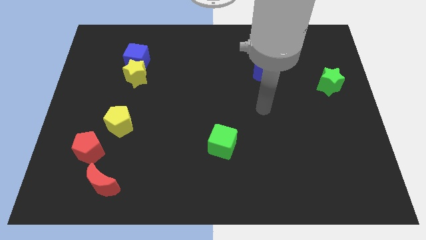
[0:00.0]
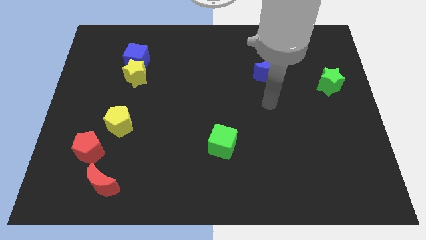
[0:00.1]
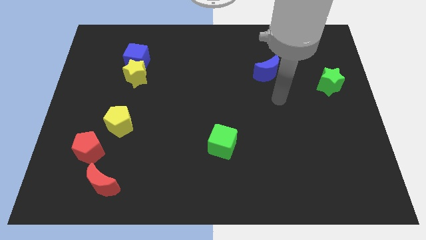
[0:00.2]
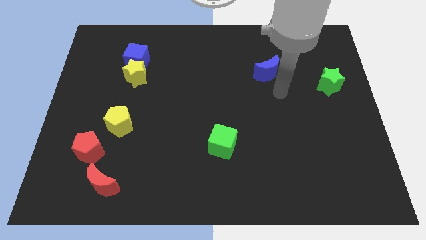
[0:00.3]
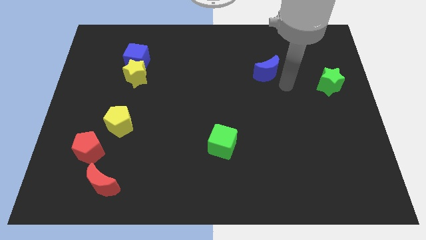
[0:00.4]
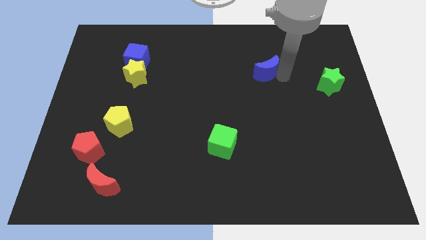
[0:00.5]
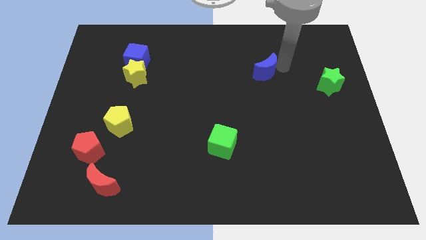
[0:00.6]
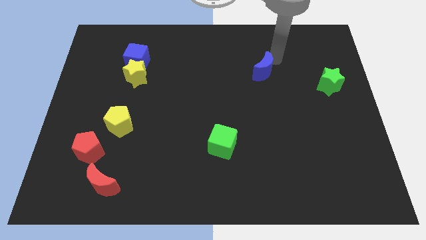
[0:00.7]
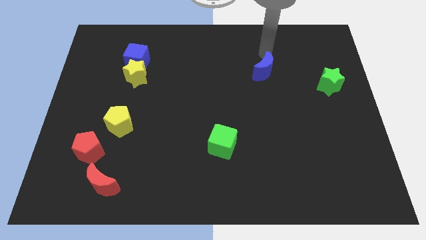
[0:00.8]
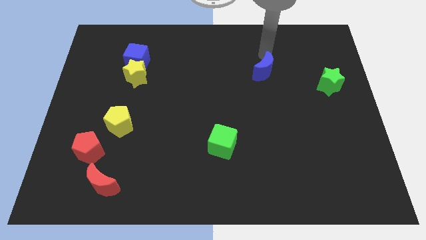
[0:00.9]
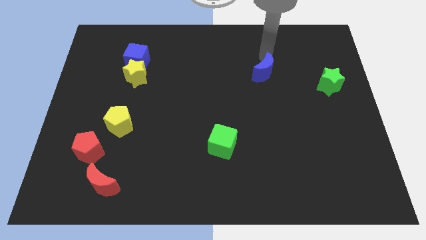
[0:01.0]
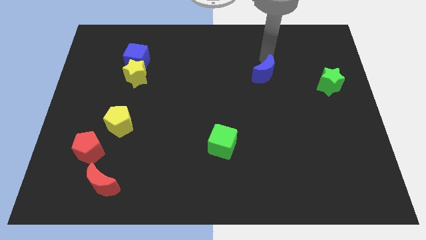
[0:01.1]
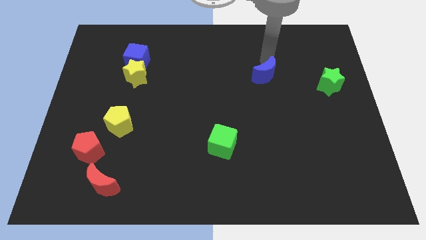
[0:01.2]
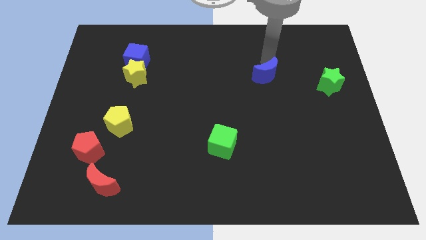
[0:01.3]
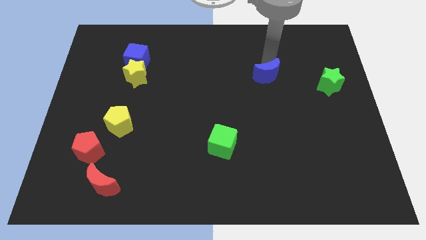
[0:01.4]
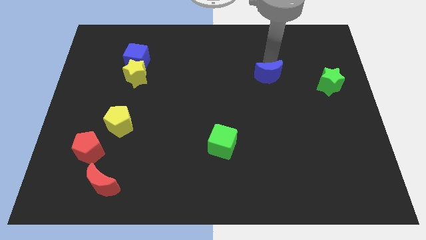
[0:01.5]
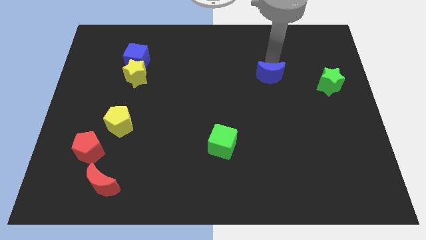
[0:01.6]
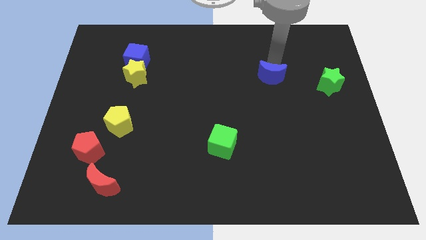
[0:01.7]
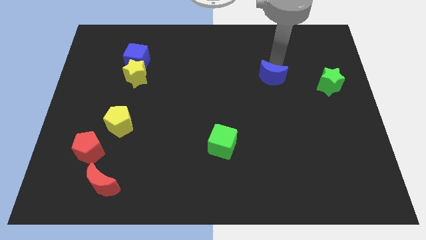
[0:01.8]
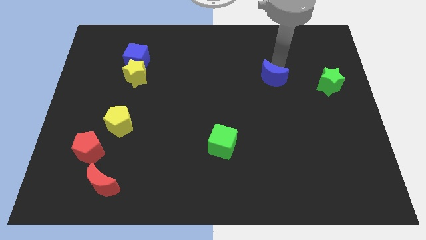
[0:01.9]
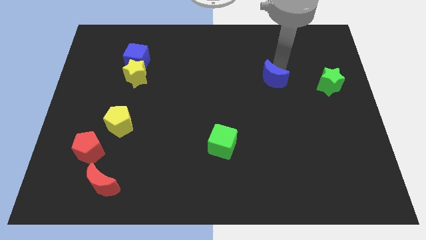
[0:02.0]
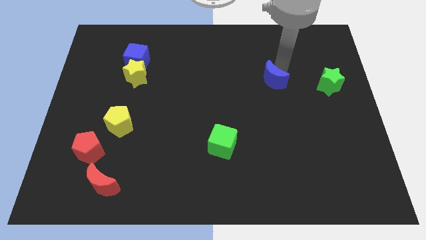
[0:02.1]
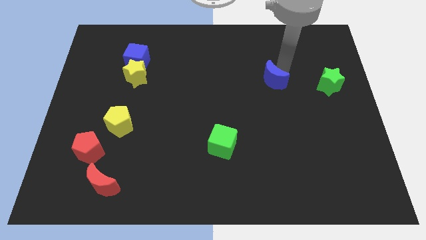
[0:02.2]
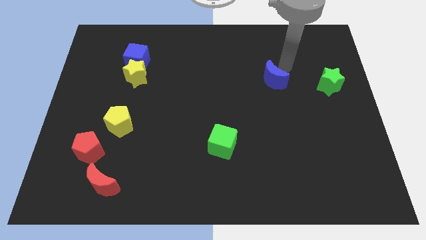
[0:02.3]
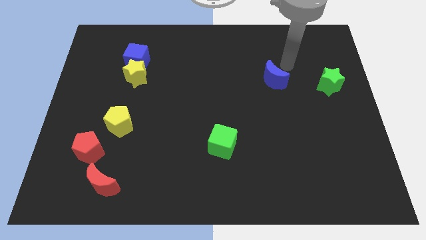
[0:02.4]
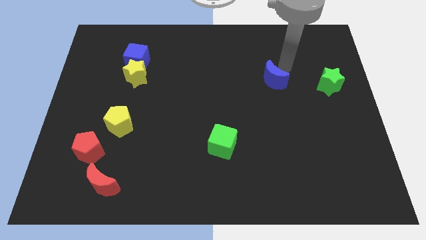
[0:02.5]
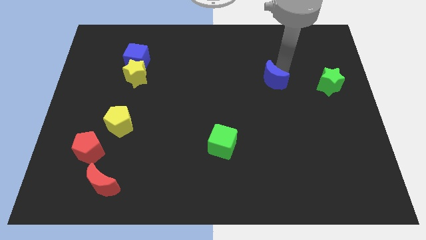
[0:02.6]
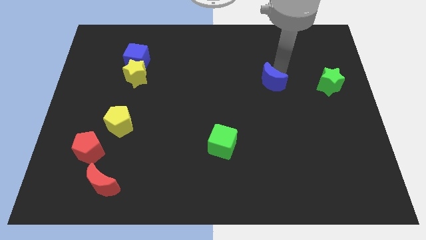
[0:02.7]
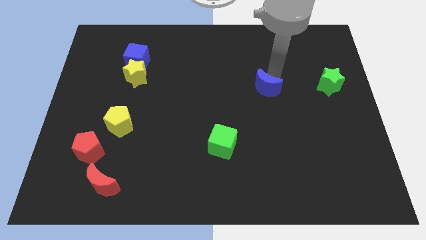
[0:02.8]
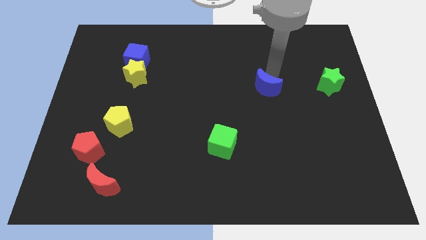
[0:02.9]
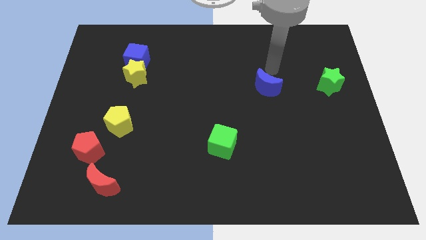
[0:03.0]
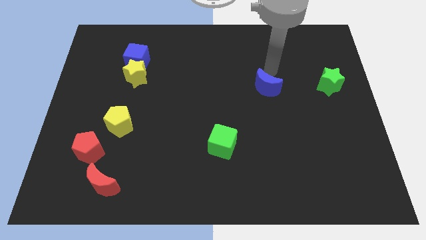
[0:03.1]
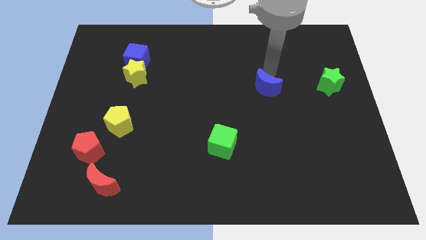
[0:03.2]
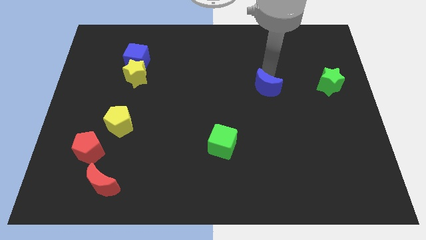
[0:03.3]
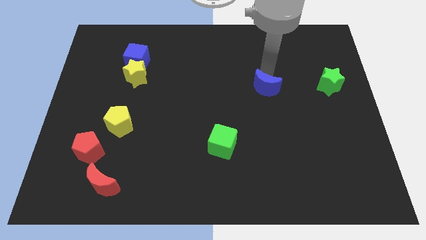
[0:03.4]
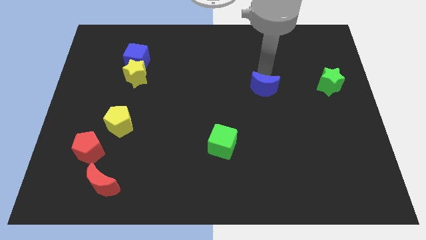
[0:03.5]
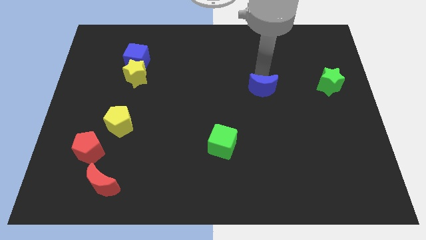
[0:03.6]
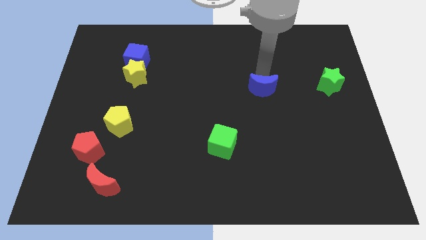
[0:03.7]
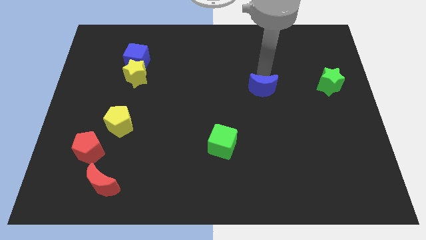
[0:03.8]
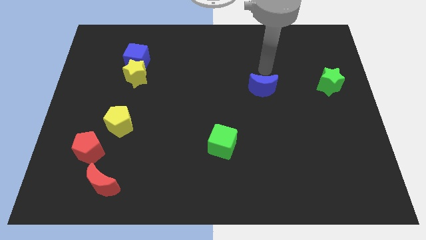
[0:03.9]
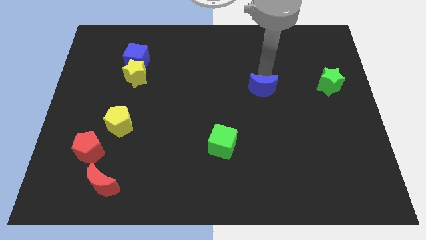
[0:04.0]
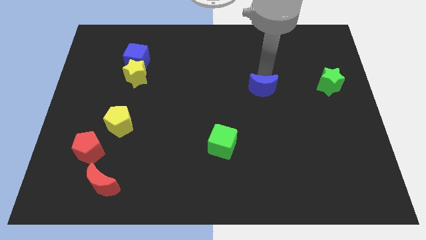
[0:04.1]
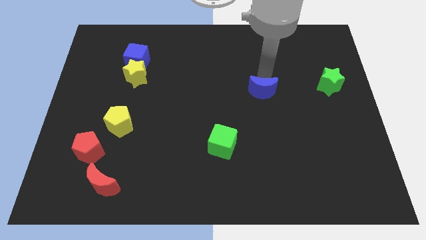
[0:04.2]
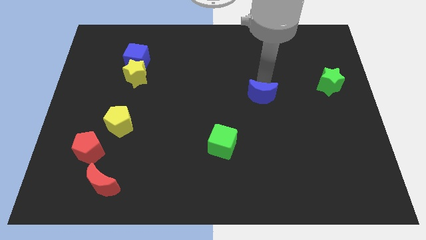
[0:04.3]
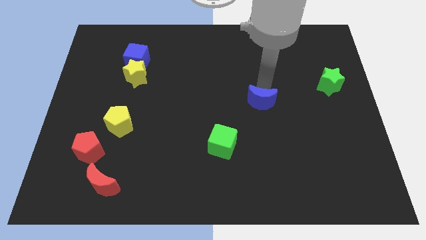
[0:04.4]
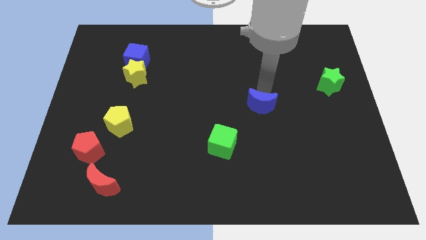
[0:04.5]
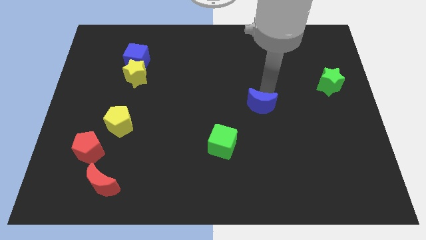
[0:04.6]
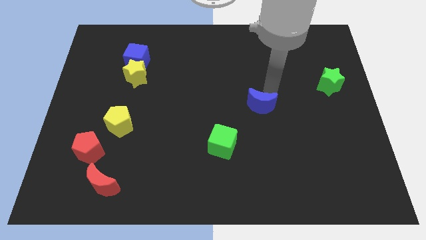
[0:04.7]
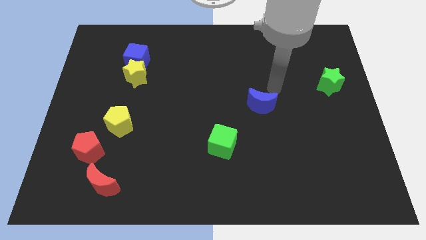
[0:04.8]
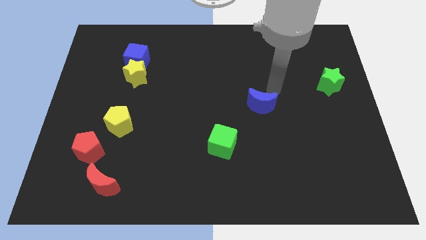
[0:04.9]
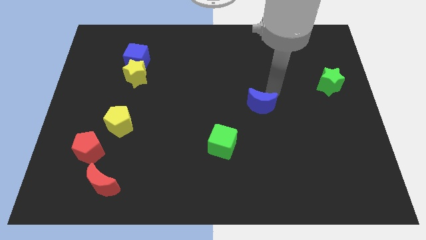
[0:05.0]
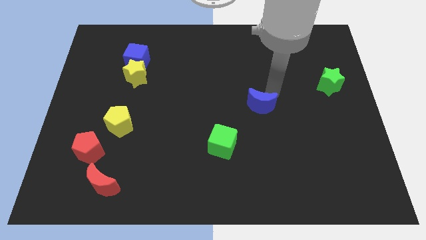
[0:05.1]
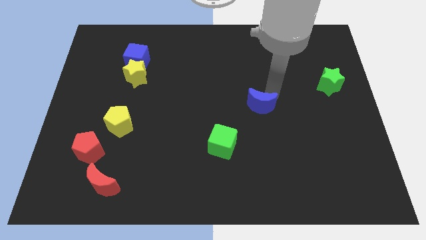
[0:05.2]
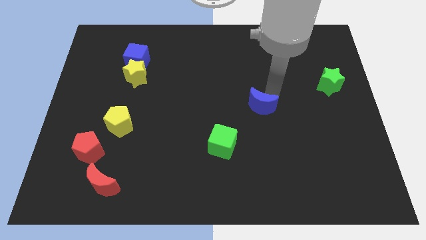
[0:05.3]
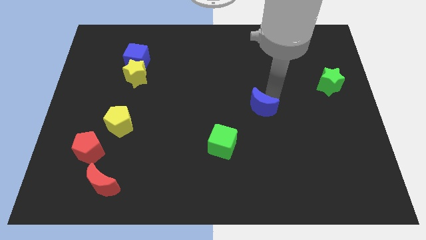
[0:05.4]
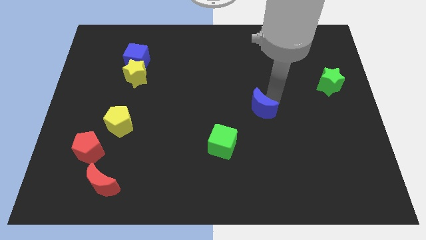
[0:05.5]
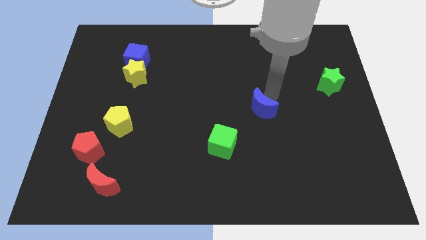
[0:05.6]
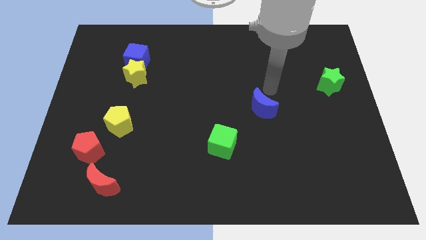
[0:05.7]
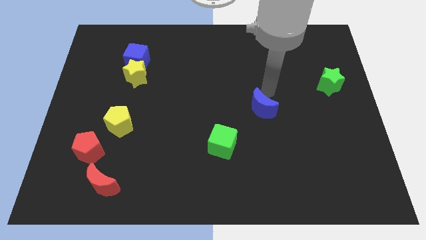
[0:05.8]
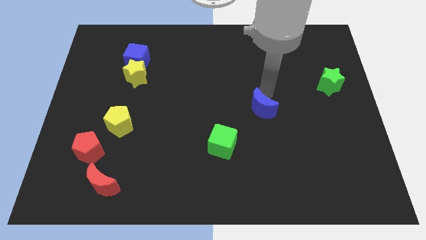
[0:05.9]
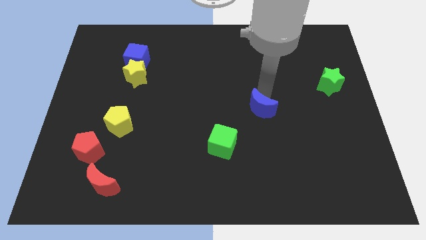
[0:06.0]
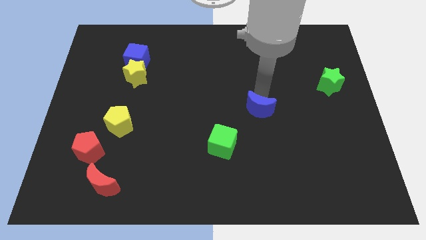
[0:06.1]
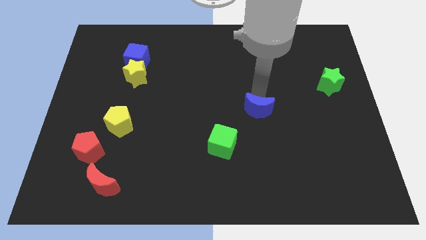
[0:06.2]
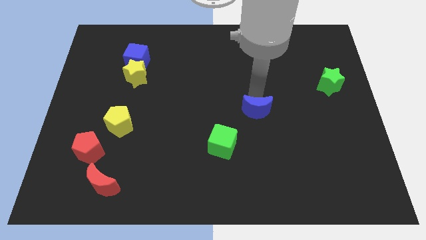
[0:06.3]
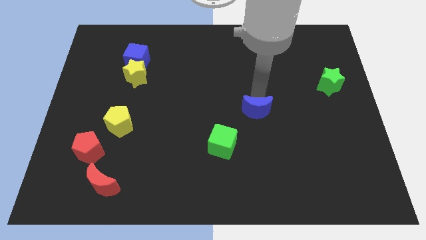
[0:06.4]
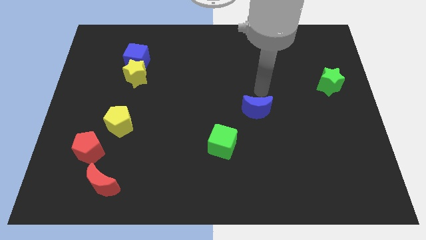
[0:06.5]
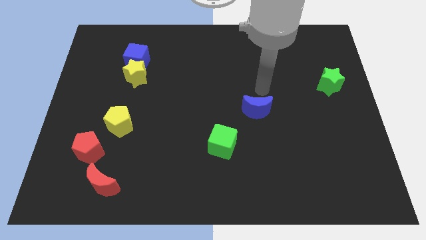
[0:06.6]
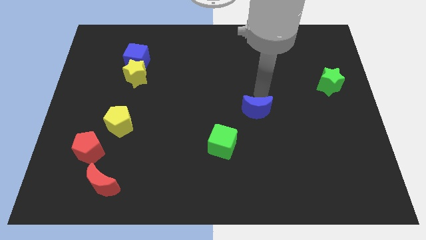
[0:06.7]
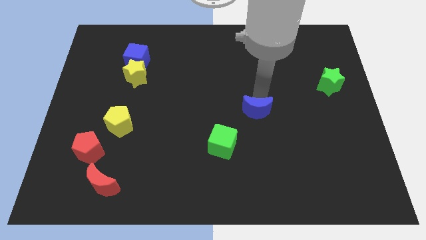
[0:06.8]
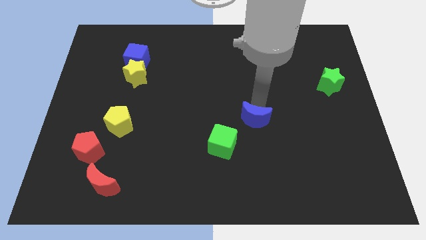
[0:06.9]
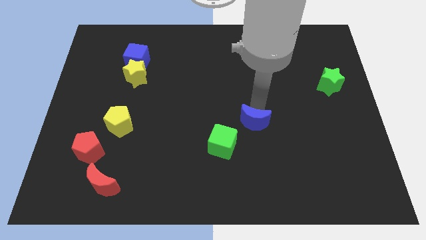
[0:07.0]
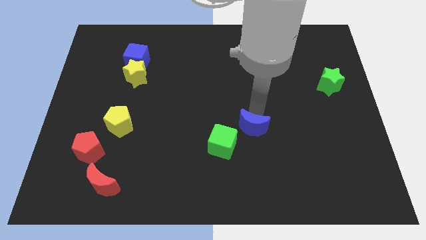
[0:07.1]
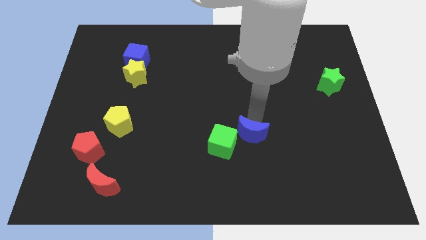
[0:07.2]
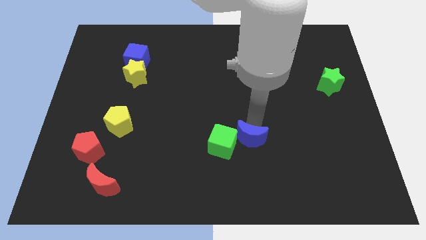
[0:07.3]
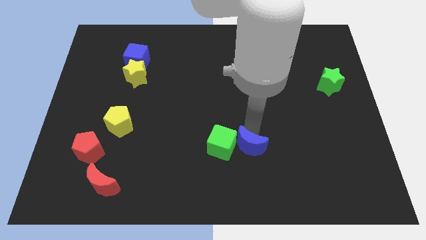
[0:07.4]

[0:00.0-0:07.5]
slide the blue moon to the bottom right side of the green cube

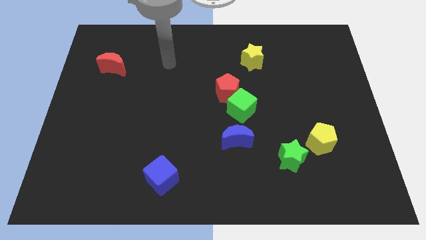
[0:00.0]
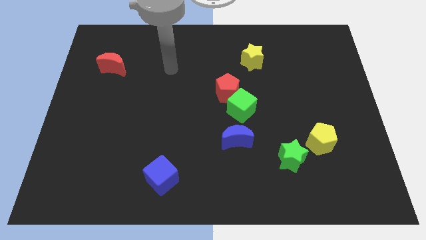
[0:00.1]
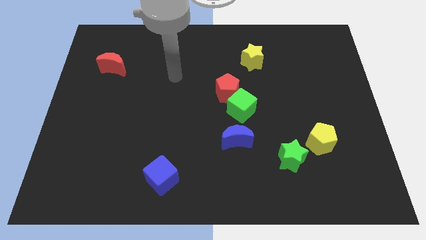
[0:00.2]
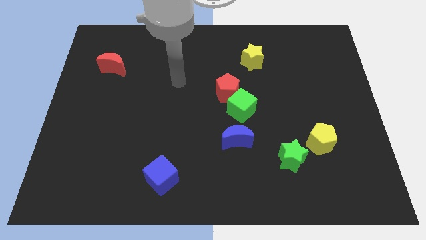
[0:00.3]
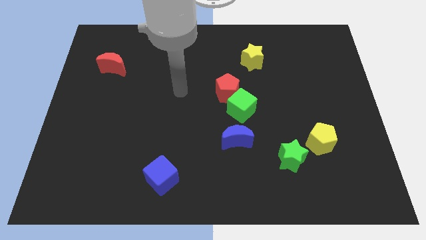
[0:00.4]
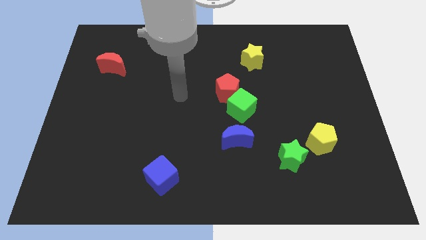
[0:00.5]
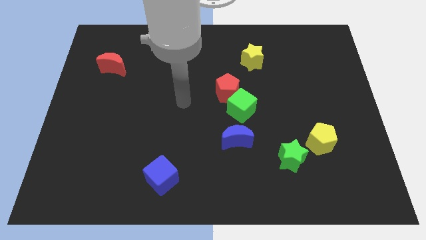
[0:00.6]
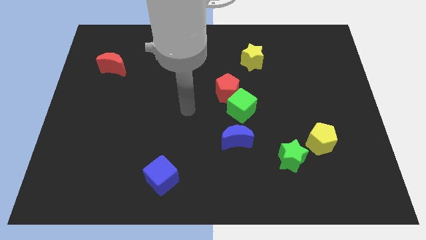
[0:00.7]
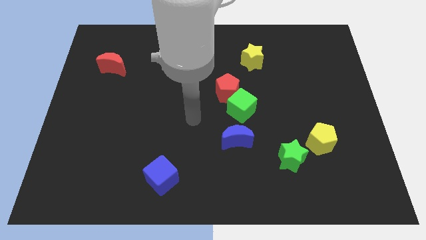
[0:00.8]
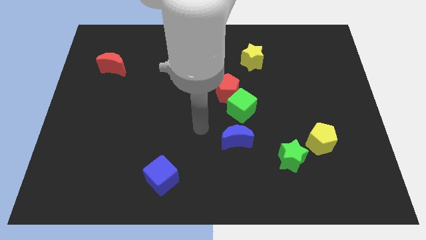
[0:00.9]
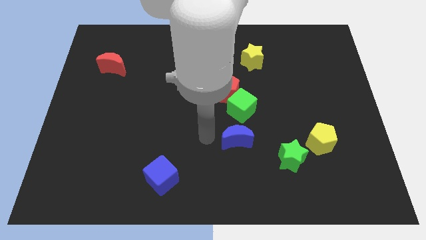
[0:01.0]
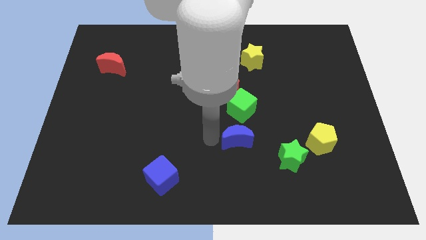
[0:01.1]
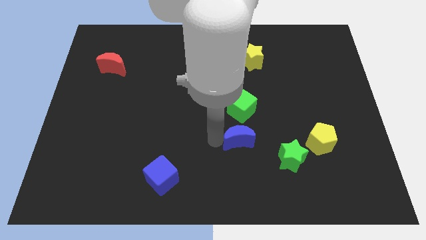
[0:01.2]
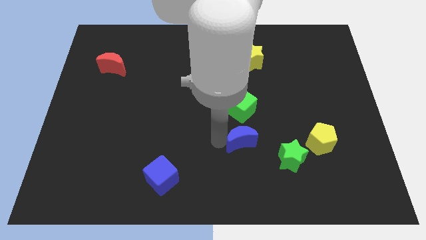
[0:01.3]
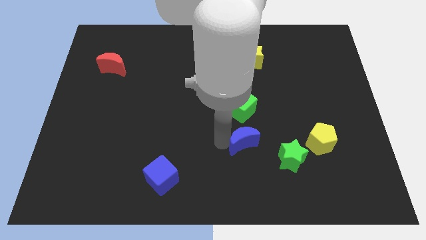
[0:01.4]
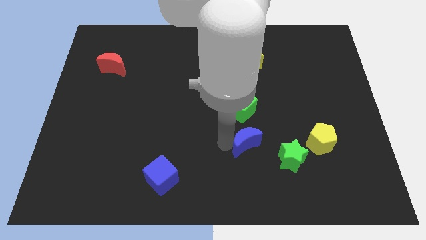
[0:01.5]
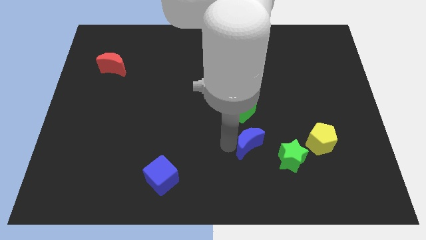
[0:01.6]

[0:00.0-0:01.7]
put the blue moon left of the yellow pentagon
